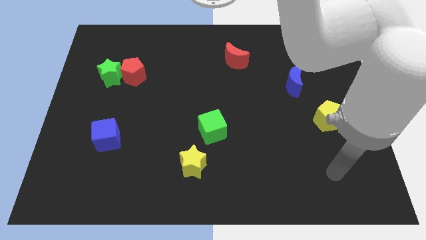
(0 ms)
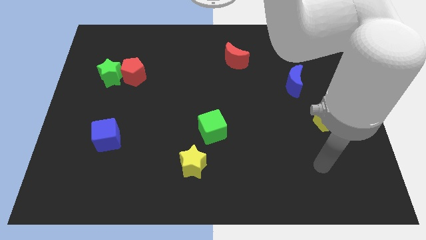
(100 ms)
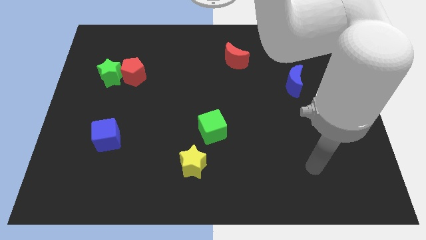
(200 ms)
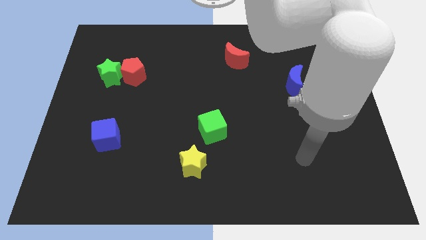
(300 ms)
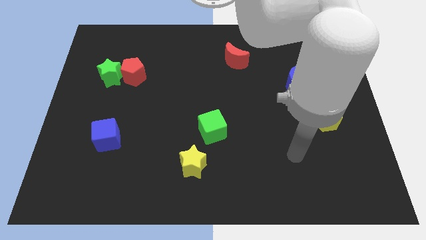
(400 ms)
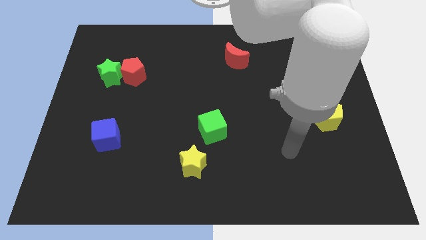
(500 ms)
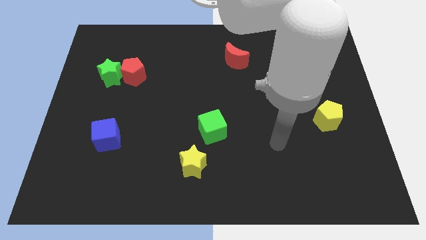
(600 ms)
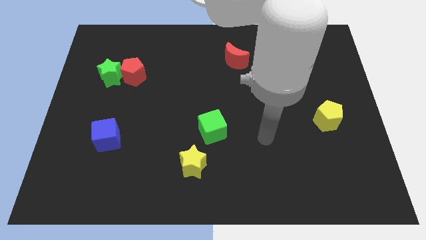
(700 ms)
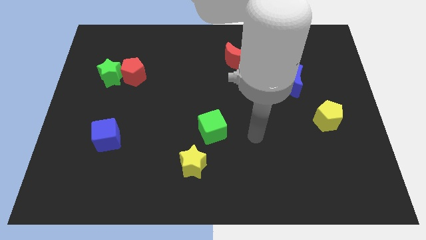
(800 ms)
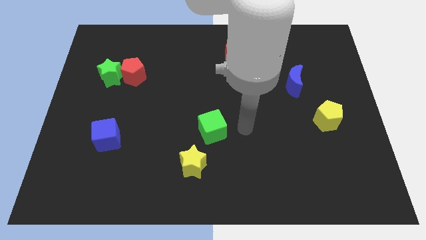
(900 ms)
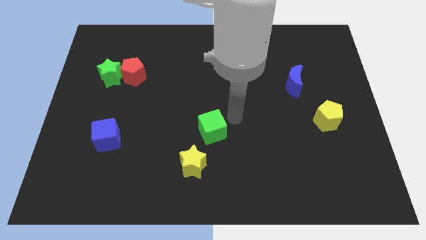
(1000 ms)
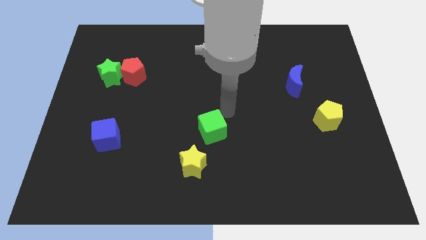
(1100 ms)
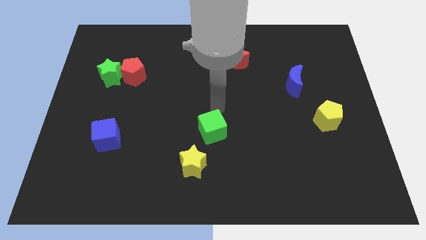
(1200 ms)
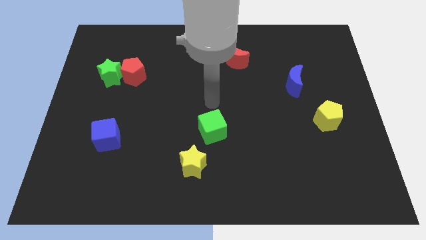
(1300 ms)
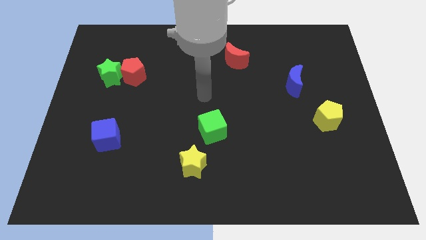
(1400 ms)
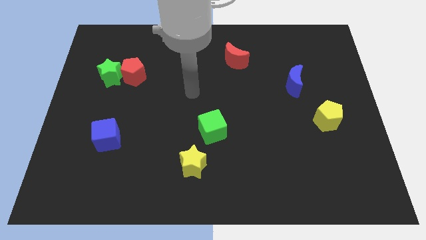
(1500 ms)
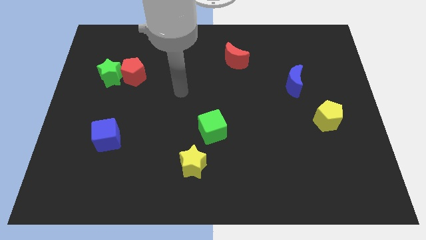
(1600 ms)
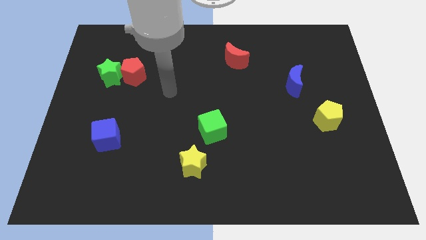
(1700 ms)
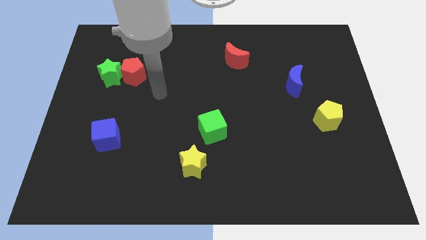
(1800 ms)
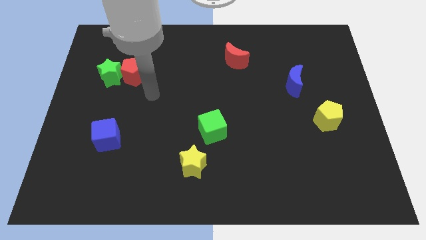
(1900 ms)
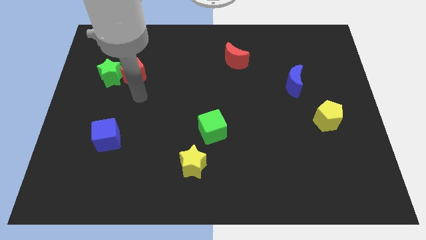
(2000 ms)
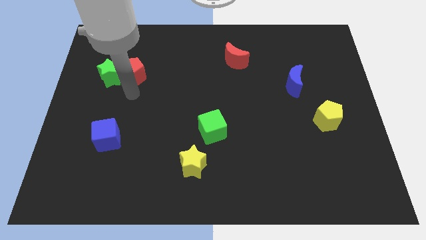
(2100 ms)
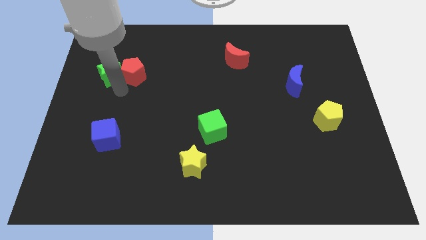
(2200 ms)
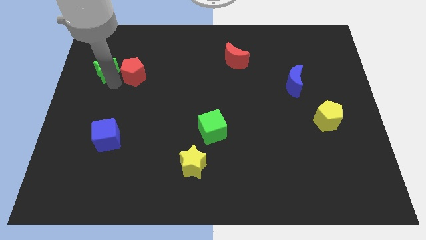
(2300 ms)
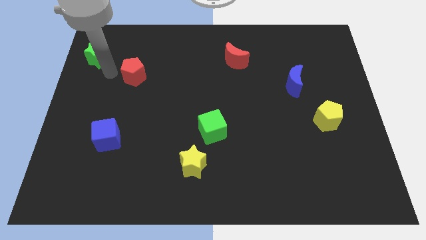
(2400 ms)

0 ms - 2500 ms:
pull the red pentagon apart from the green star

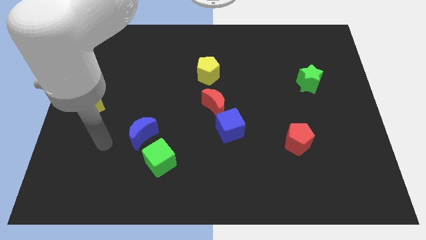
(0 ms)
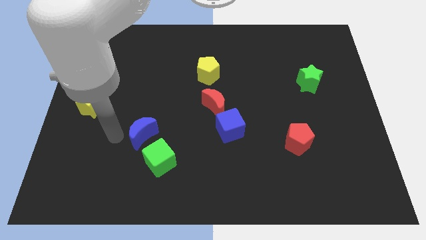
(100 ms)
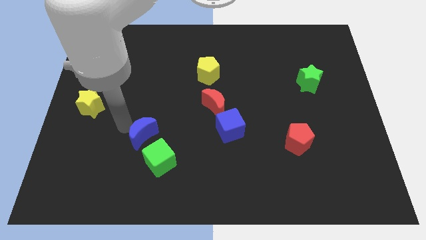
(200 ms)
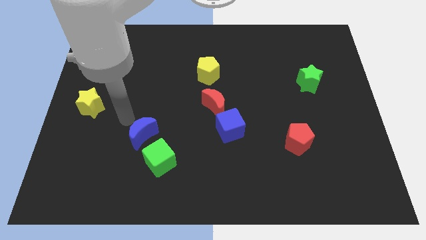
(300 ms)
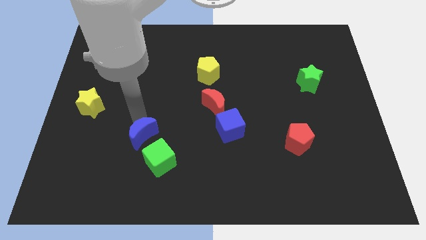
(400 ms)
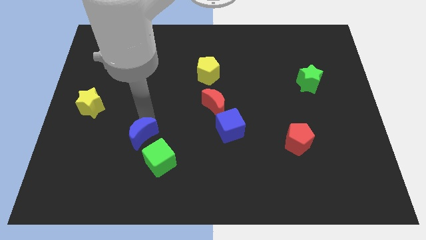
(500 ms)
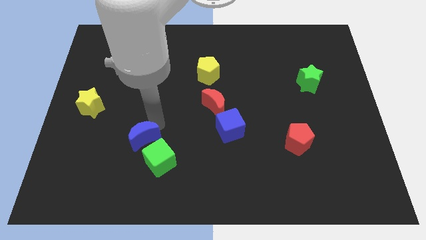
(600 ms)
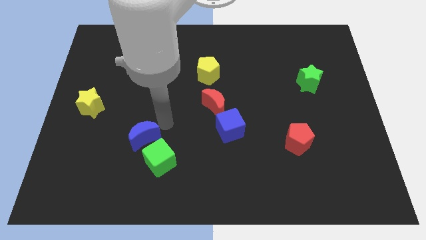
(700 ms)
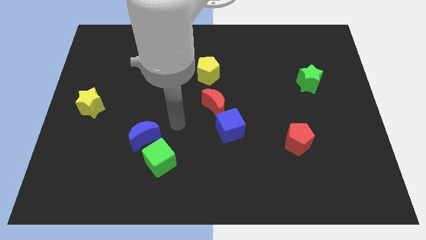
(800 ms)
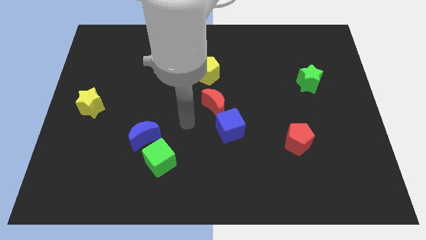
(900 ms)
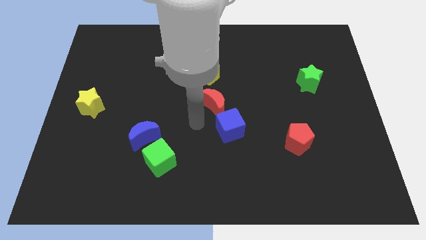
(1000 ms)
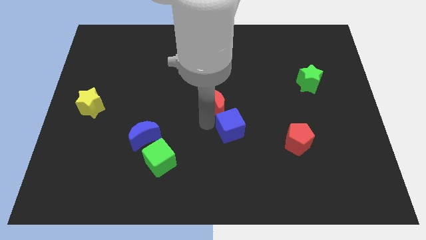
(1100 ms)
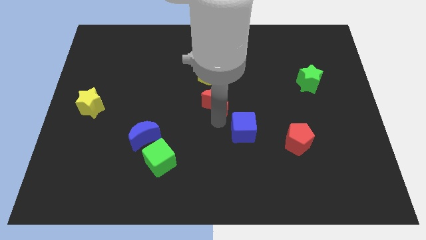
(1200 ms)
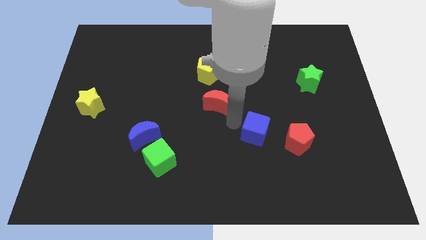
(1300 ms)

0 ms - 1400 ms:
move the red moon away from the blue cube

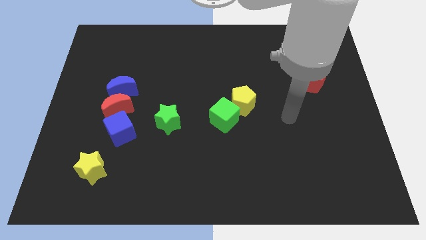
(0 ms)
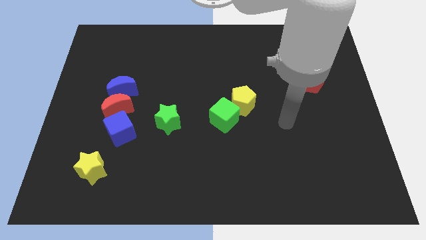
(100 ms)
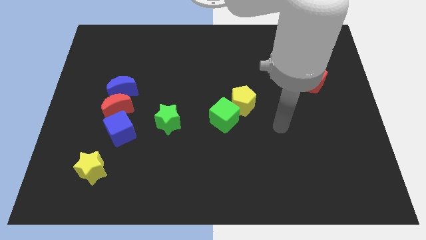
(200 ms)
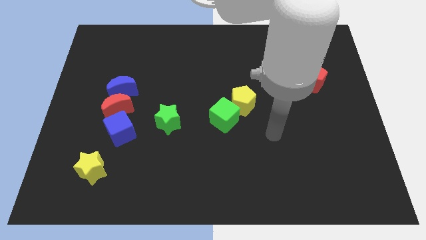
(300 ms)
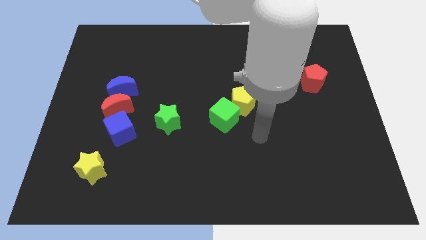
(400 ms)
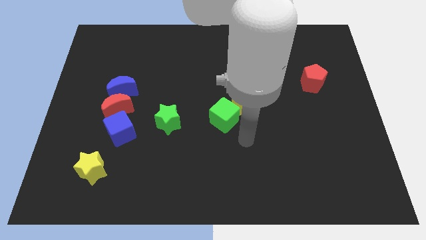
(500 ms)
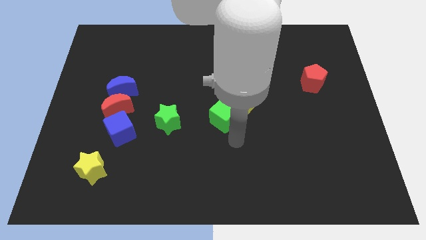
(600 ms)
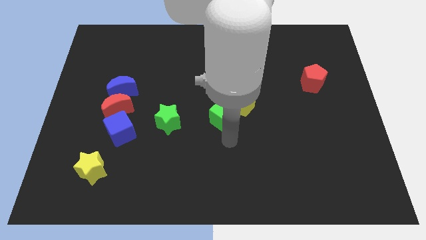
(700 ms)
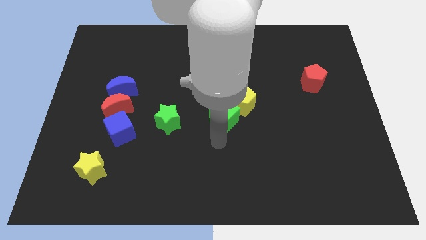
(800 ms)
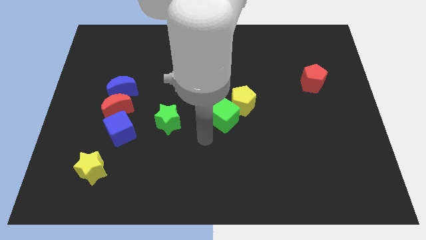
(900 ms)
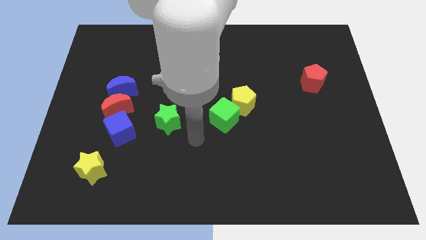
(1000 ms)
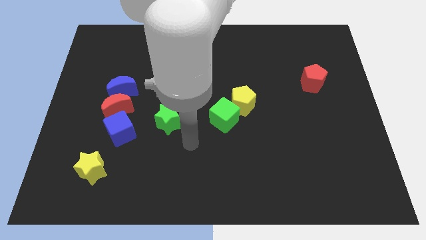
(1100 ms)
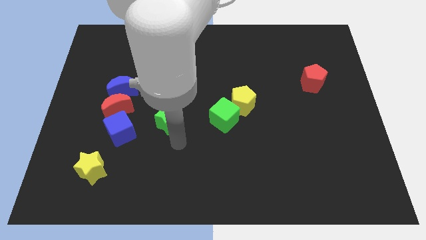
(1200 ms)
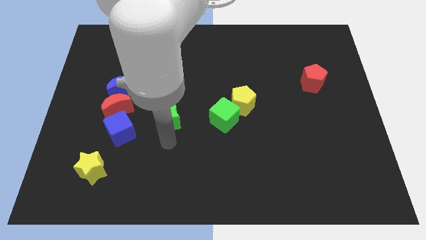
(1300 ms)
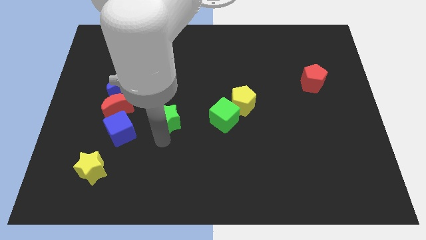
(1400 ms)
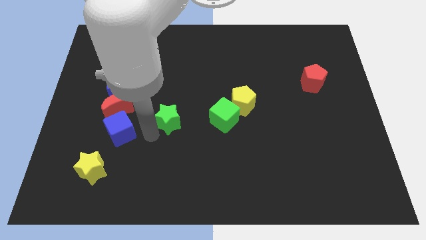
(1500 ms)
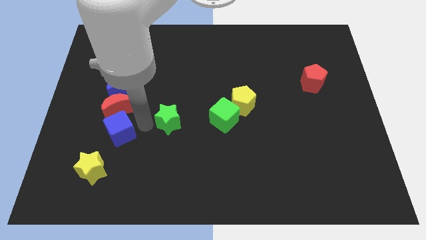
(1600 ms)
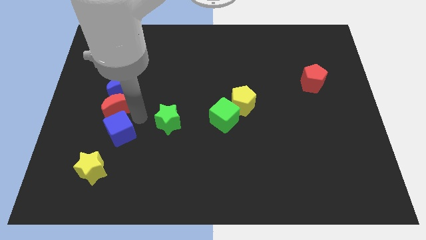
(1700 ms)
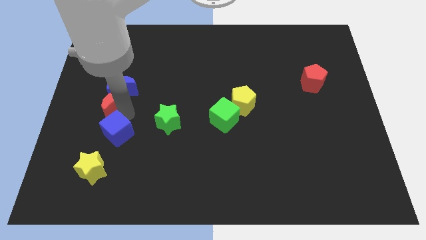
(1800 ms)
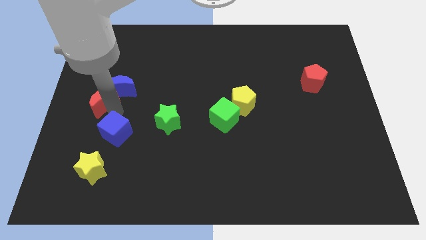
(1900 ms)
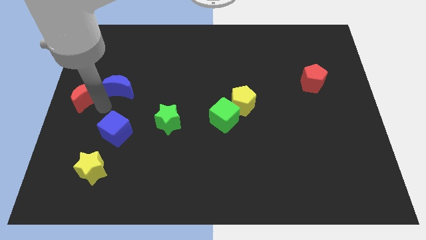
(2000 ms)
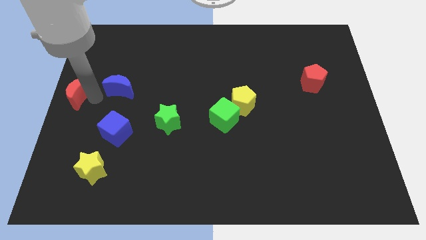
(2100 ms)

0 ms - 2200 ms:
separate the blue moon from the red moon

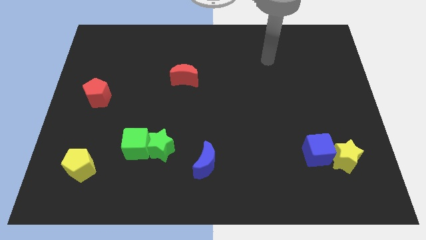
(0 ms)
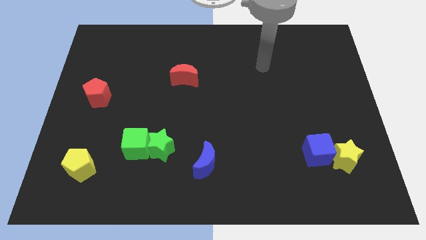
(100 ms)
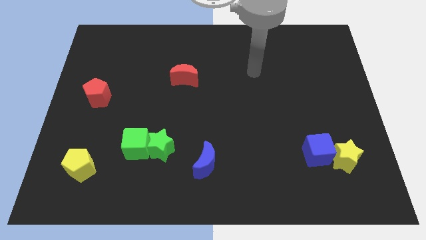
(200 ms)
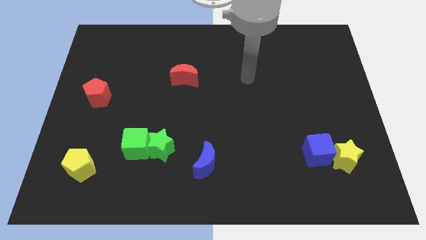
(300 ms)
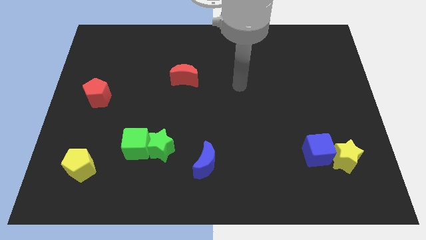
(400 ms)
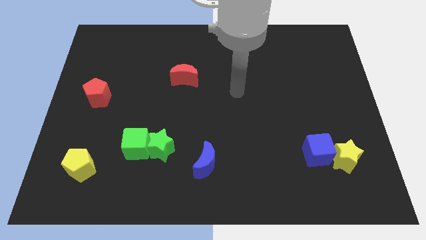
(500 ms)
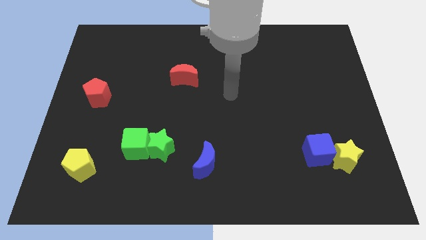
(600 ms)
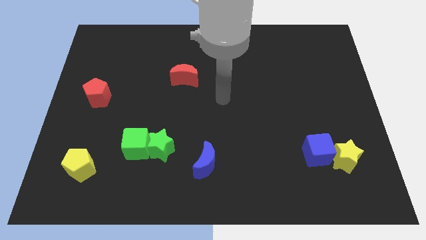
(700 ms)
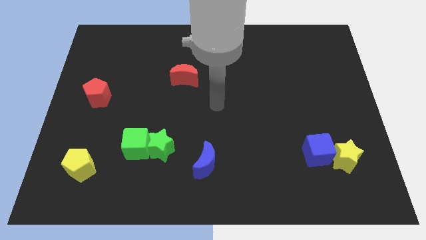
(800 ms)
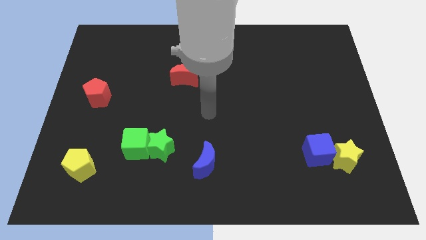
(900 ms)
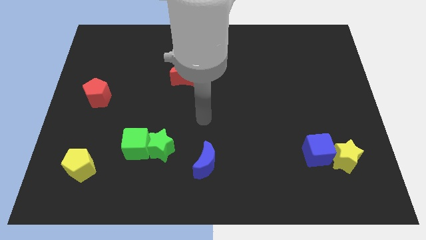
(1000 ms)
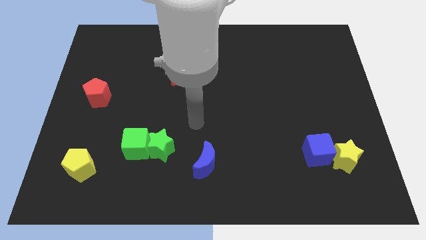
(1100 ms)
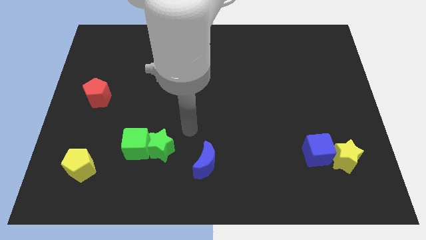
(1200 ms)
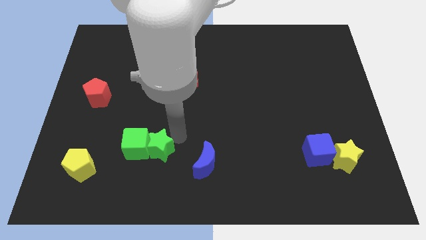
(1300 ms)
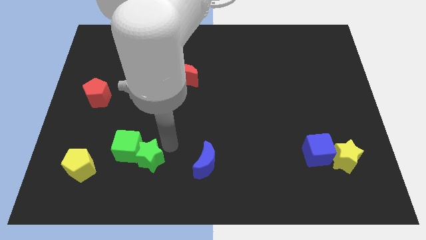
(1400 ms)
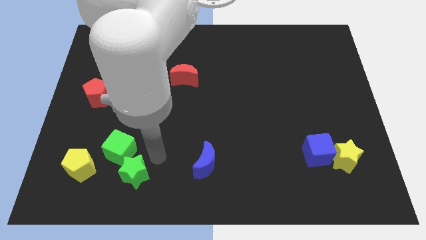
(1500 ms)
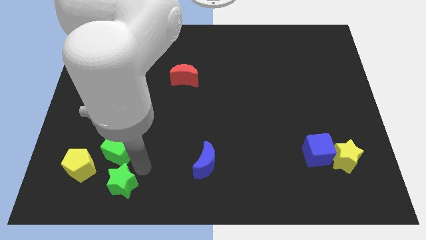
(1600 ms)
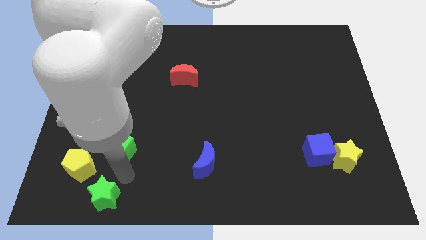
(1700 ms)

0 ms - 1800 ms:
pull the green cube apart from the green star

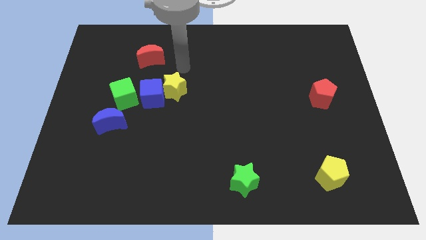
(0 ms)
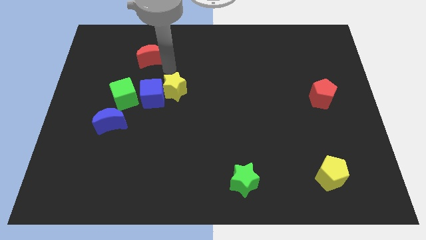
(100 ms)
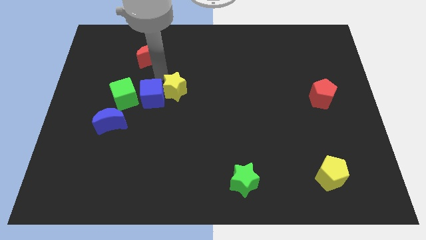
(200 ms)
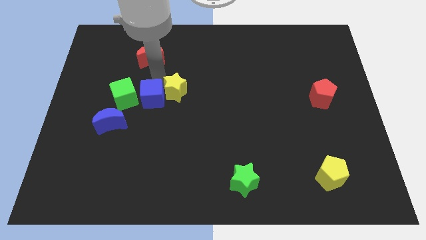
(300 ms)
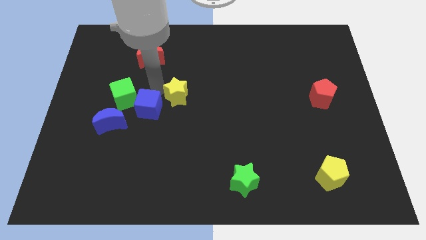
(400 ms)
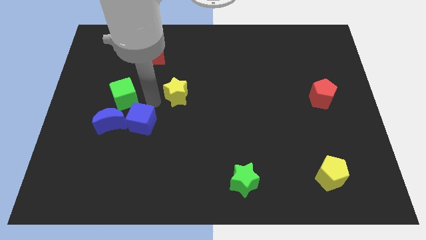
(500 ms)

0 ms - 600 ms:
separate the yellow star from the blue cube

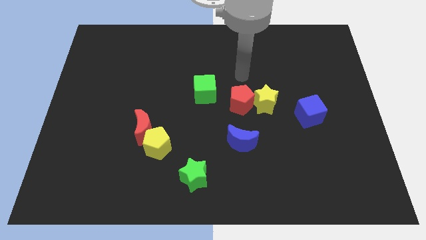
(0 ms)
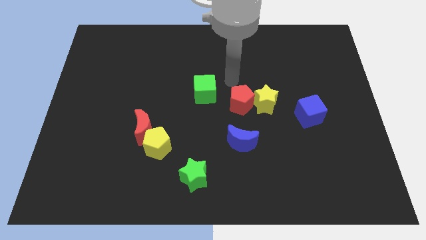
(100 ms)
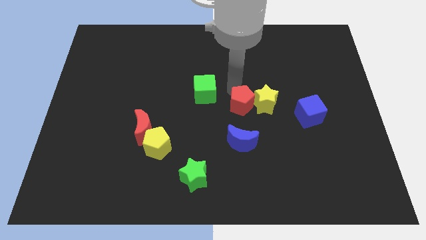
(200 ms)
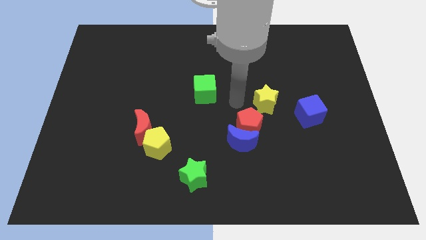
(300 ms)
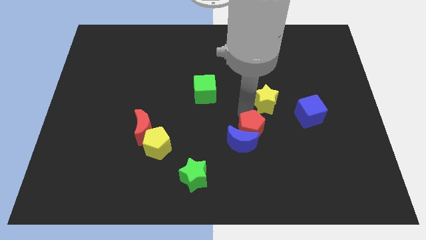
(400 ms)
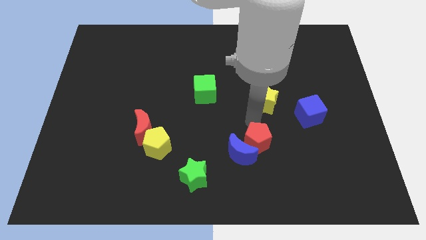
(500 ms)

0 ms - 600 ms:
move the yellow star away from the red pentagon

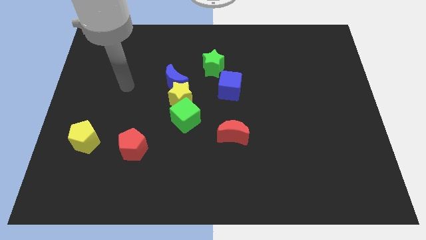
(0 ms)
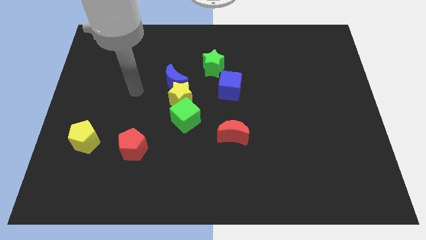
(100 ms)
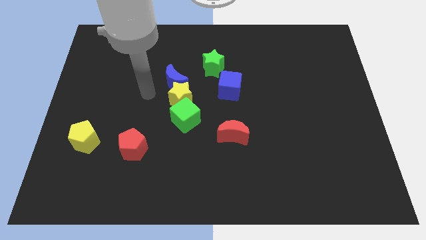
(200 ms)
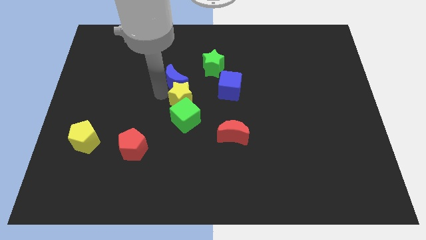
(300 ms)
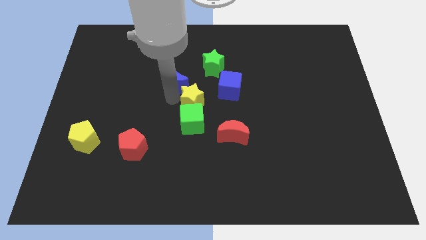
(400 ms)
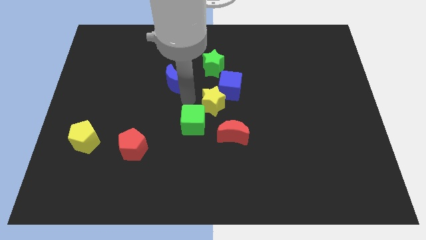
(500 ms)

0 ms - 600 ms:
pull the blue moon apart from the yellow star
